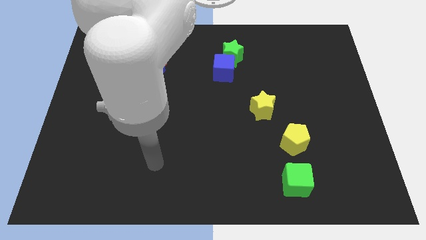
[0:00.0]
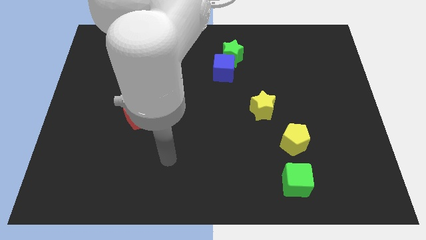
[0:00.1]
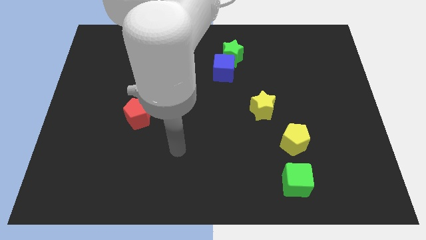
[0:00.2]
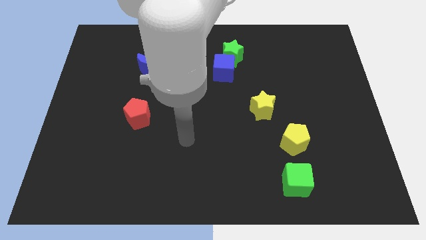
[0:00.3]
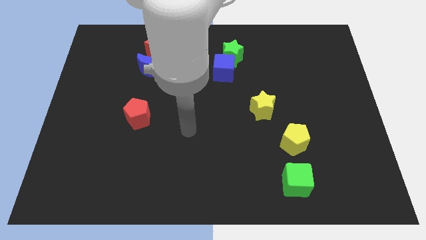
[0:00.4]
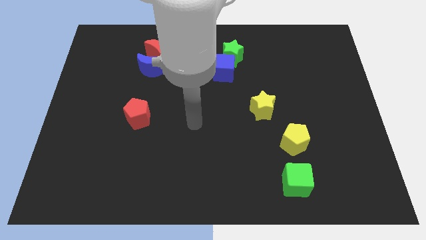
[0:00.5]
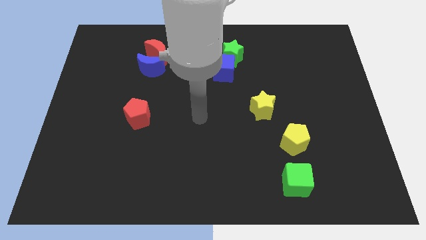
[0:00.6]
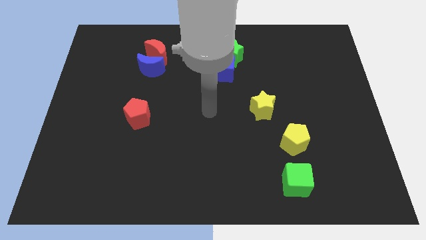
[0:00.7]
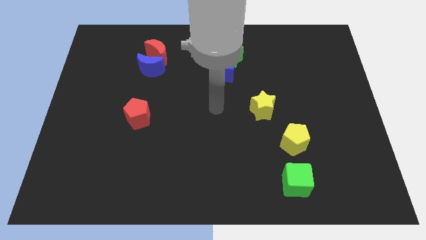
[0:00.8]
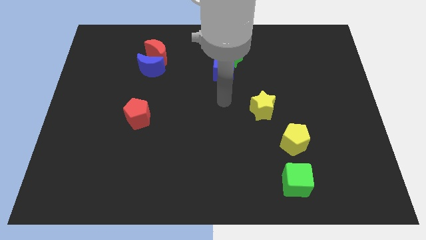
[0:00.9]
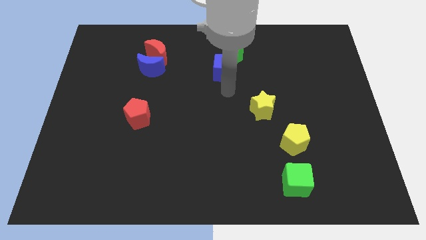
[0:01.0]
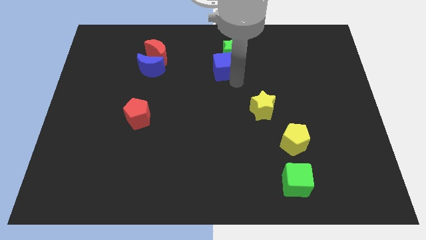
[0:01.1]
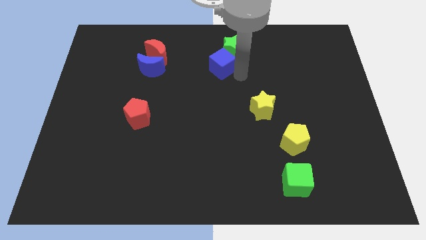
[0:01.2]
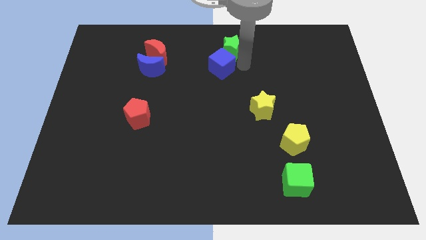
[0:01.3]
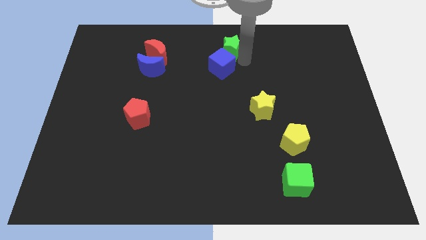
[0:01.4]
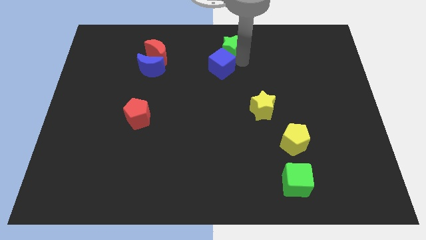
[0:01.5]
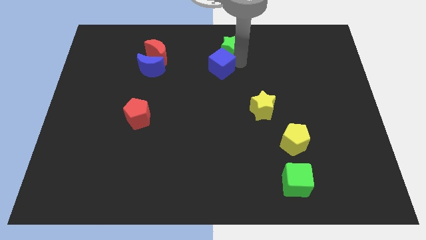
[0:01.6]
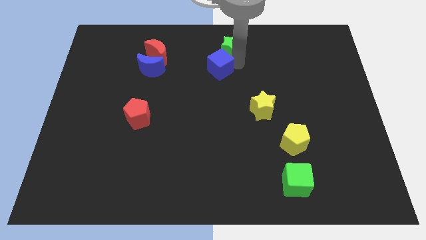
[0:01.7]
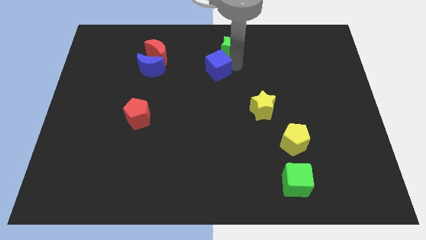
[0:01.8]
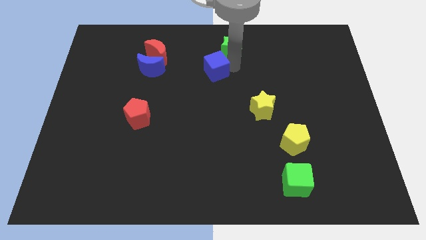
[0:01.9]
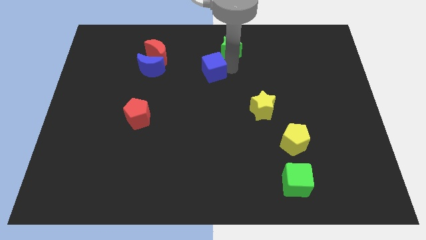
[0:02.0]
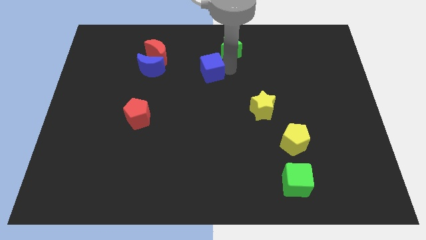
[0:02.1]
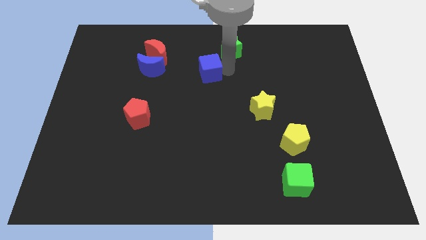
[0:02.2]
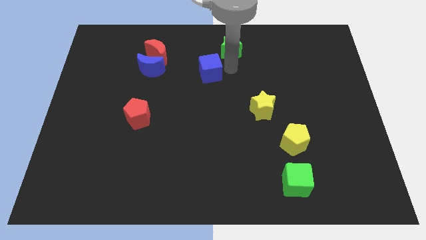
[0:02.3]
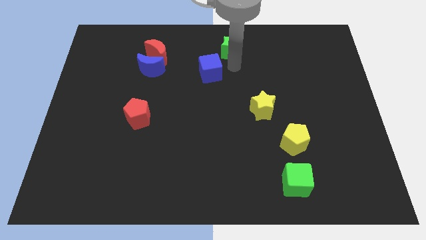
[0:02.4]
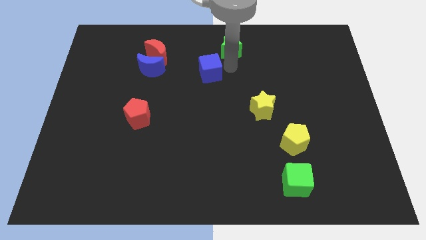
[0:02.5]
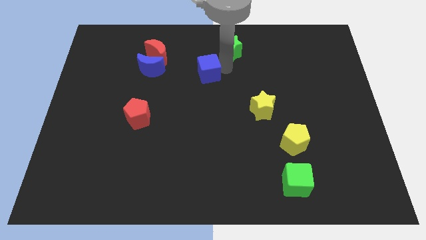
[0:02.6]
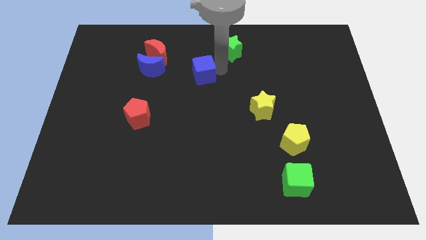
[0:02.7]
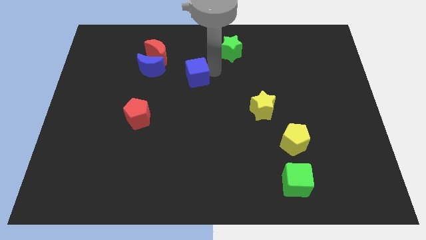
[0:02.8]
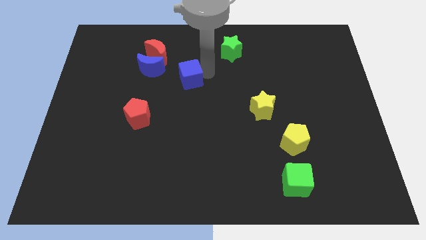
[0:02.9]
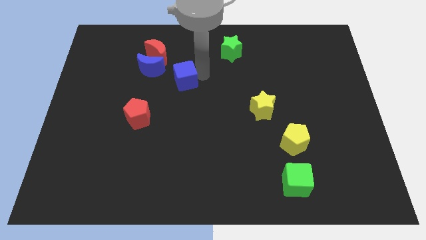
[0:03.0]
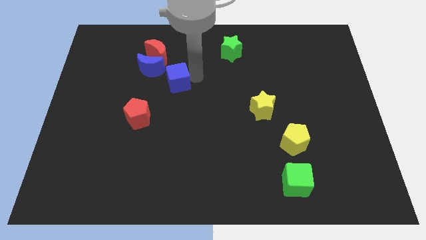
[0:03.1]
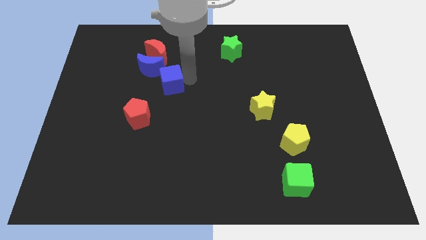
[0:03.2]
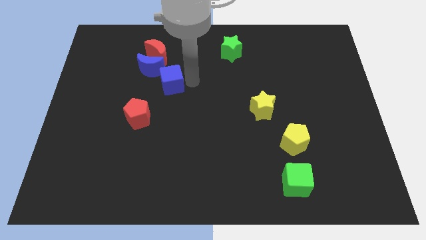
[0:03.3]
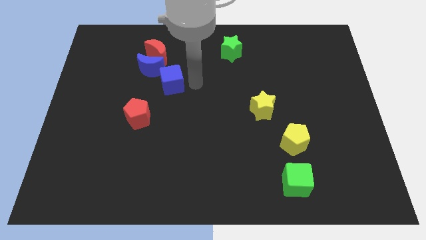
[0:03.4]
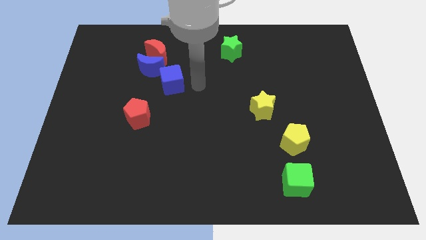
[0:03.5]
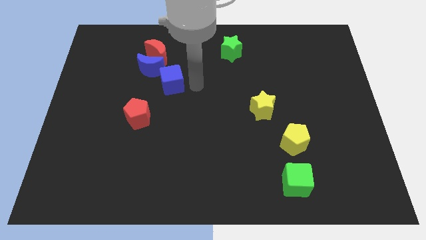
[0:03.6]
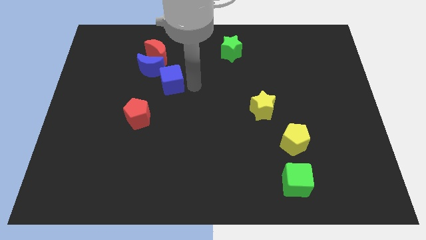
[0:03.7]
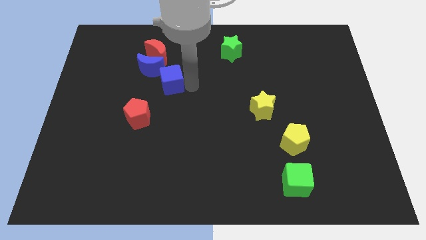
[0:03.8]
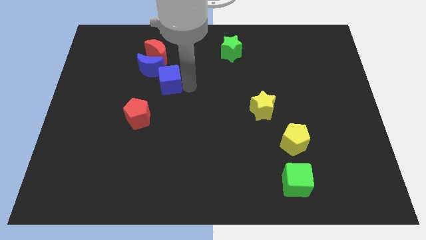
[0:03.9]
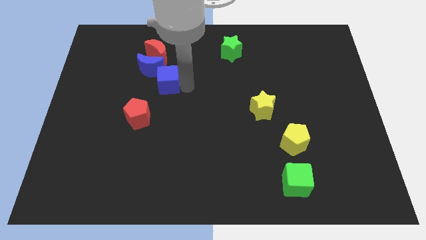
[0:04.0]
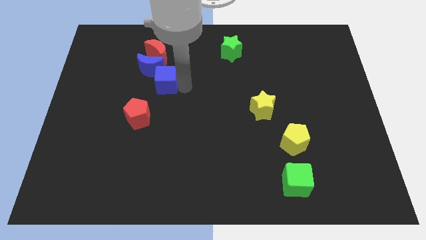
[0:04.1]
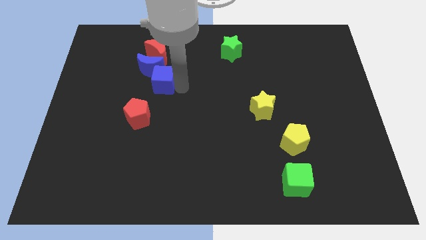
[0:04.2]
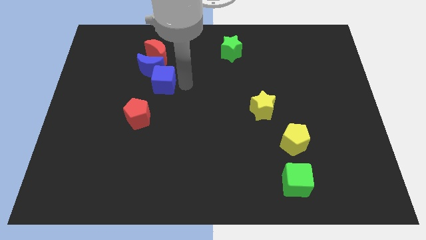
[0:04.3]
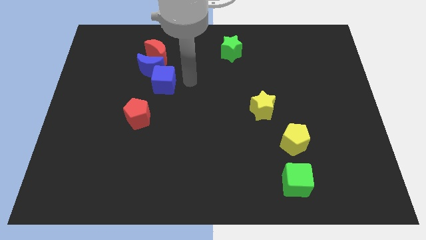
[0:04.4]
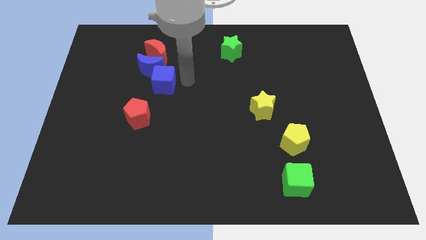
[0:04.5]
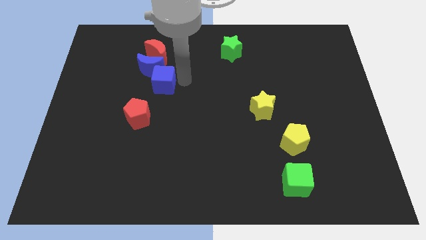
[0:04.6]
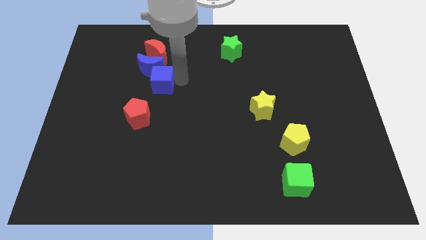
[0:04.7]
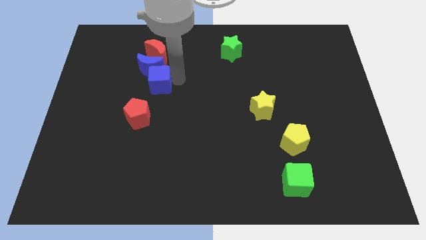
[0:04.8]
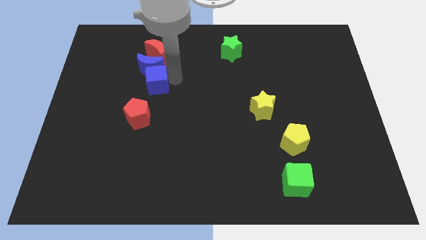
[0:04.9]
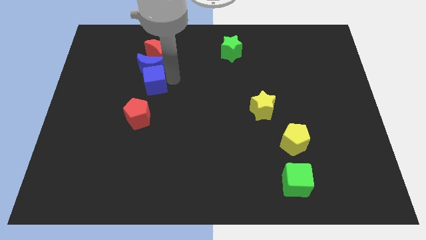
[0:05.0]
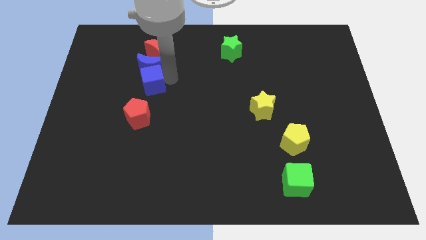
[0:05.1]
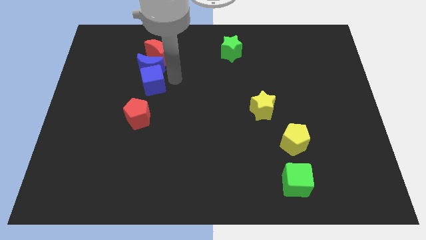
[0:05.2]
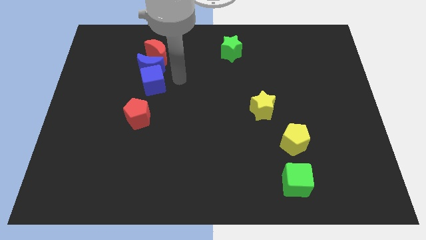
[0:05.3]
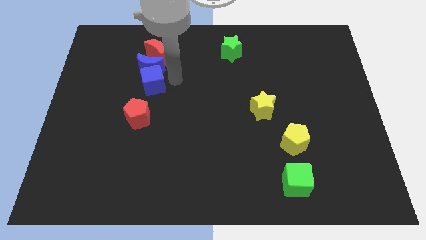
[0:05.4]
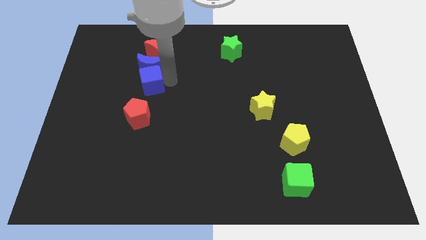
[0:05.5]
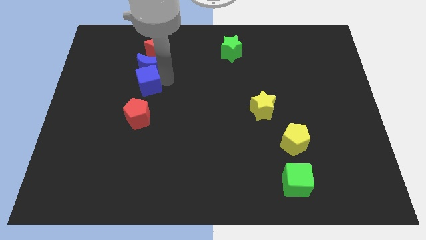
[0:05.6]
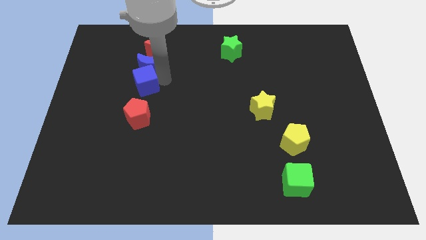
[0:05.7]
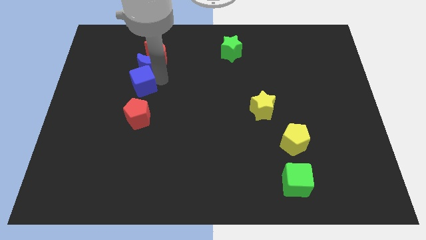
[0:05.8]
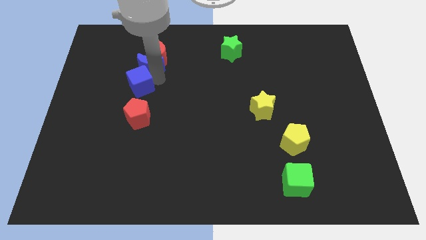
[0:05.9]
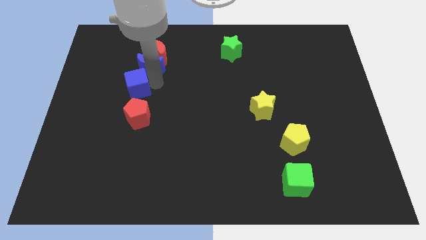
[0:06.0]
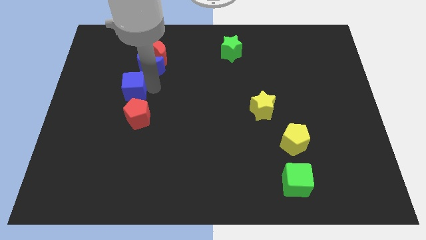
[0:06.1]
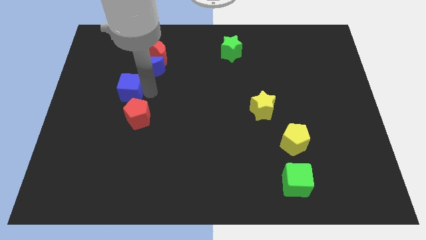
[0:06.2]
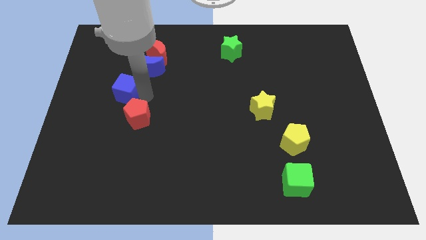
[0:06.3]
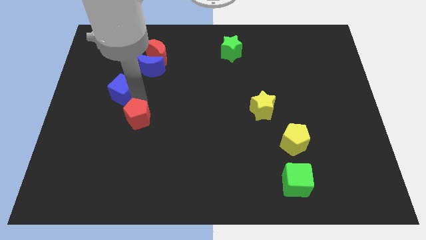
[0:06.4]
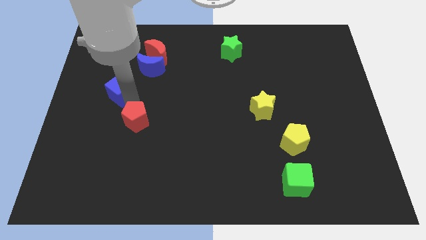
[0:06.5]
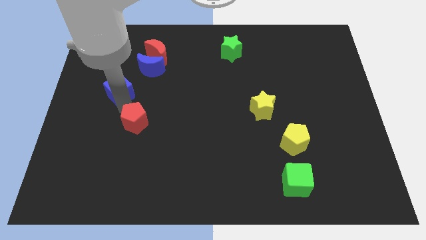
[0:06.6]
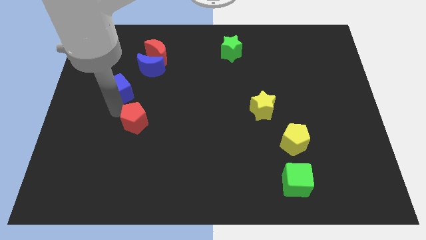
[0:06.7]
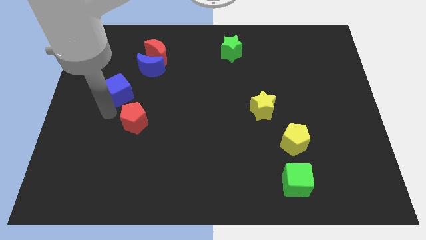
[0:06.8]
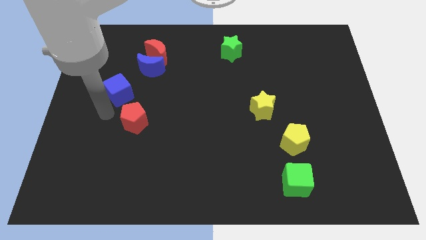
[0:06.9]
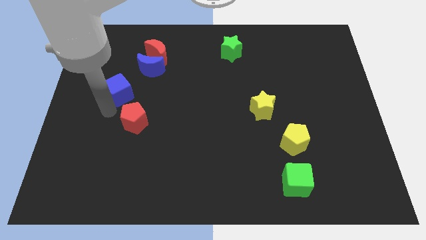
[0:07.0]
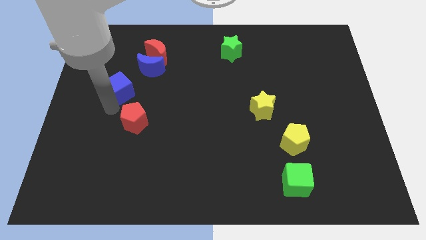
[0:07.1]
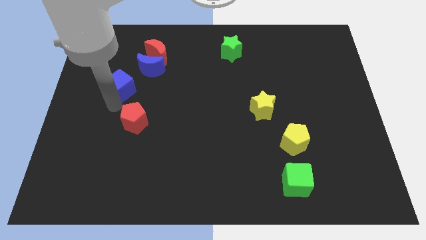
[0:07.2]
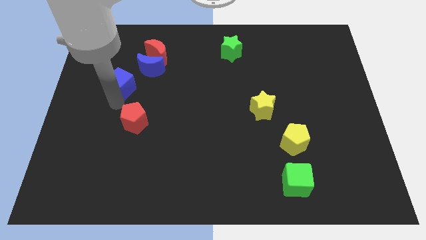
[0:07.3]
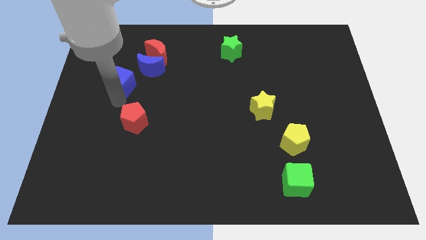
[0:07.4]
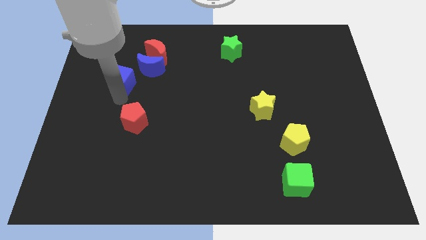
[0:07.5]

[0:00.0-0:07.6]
push the blue cube to the bottom left side of the red moon
